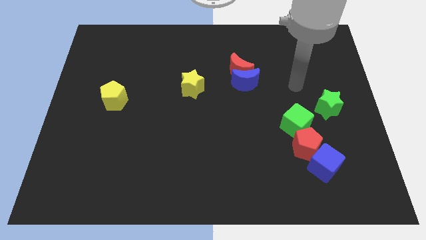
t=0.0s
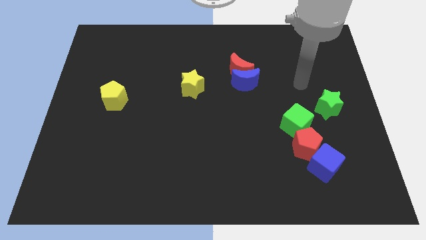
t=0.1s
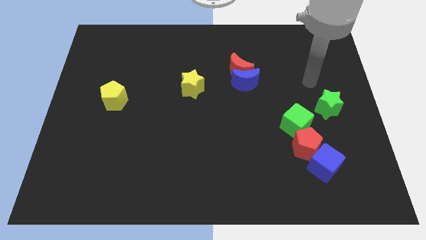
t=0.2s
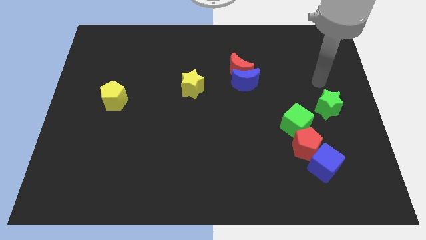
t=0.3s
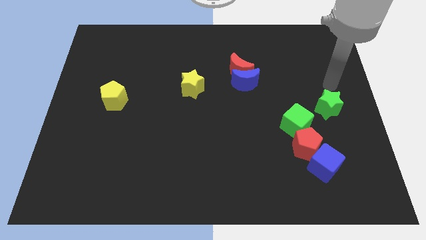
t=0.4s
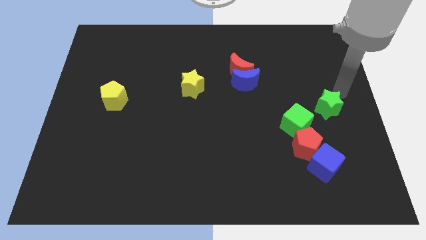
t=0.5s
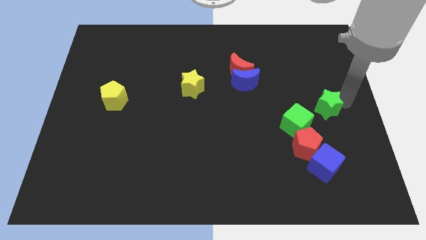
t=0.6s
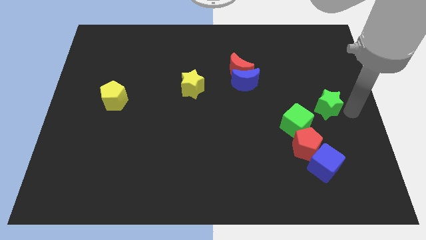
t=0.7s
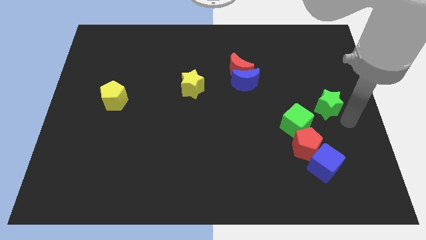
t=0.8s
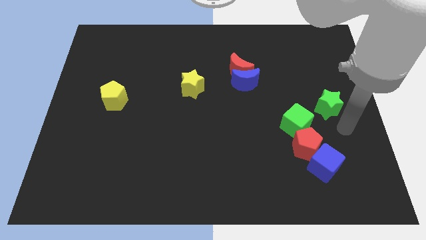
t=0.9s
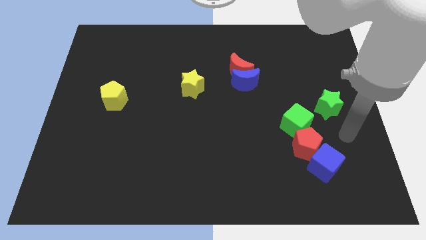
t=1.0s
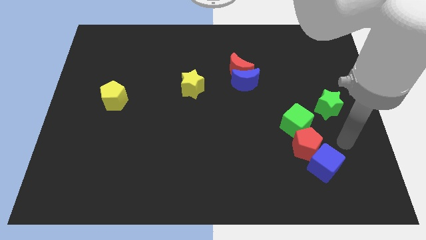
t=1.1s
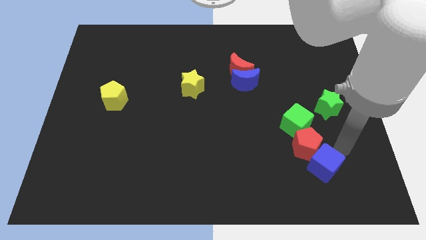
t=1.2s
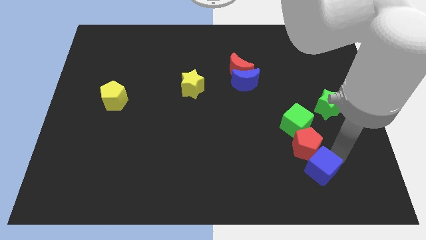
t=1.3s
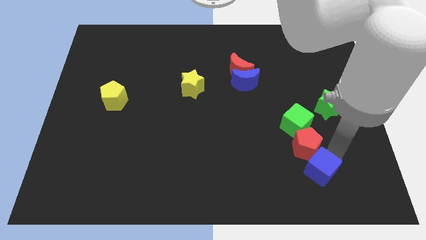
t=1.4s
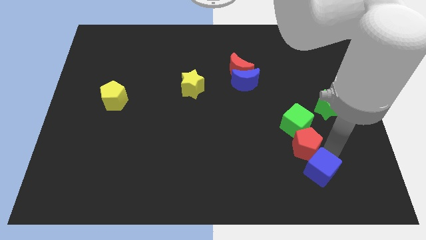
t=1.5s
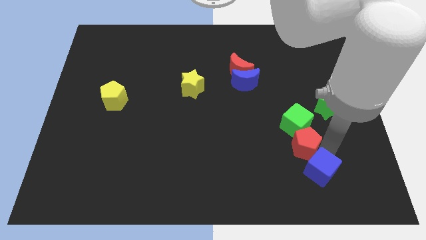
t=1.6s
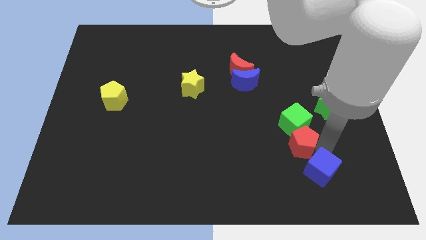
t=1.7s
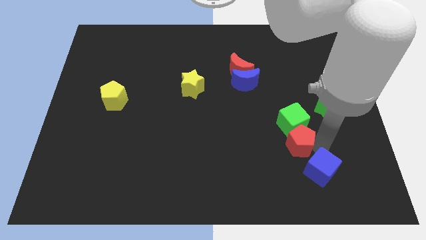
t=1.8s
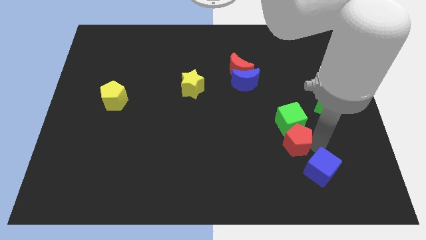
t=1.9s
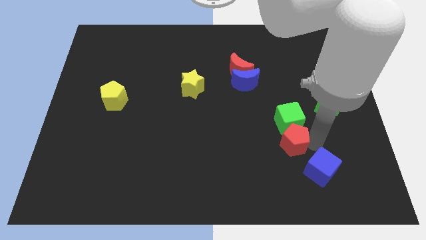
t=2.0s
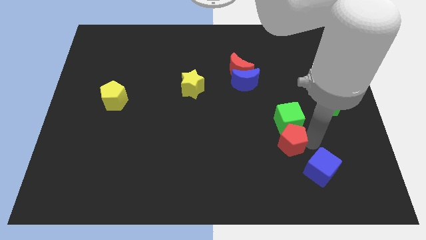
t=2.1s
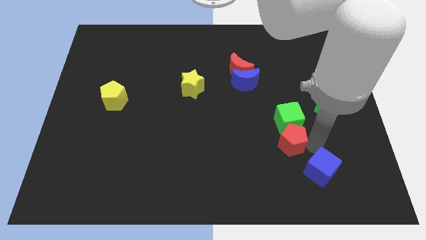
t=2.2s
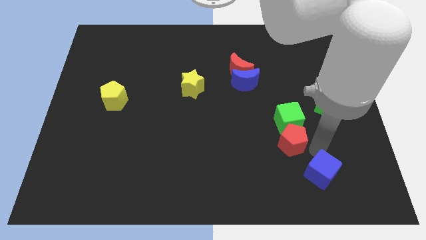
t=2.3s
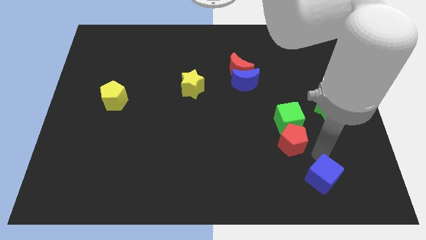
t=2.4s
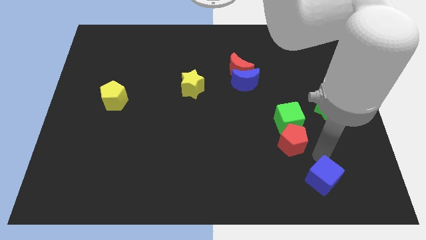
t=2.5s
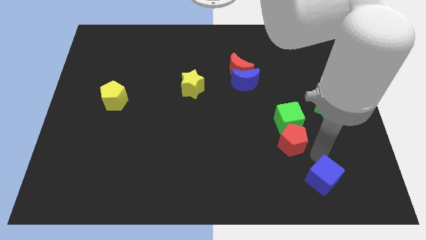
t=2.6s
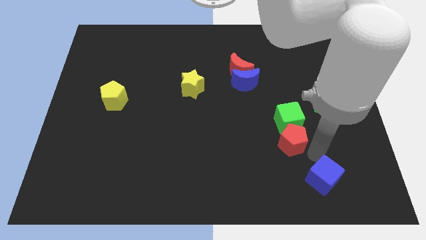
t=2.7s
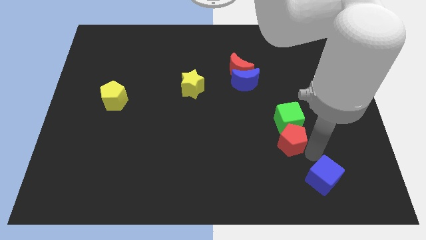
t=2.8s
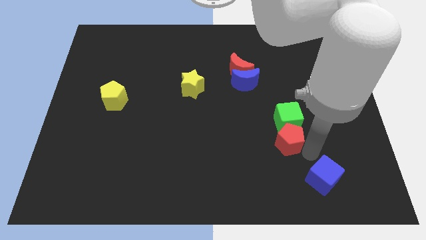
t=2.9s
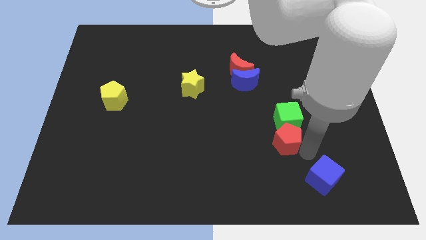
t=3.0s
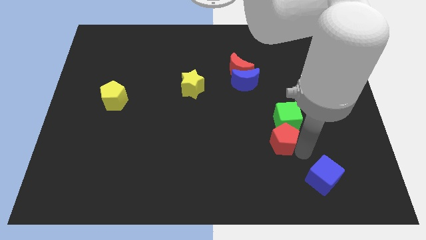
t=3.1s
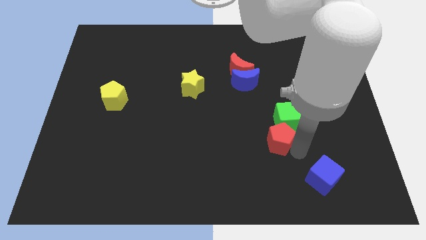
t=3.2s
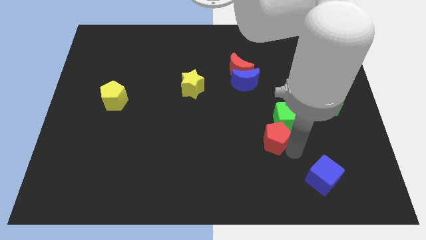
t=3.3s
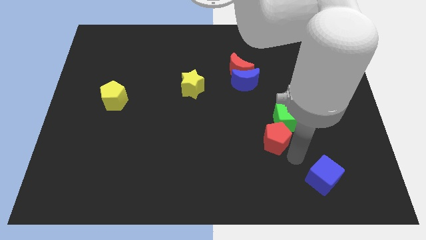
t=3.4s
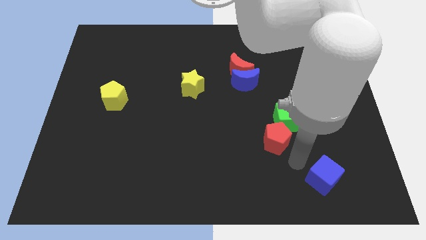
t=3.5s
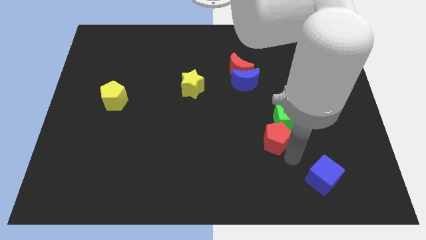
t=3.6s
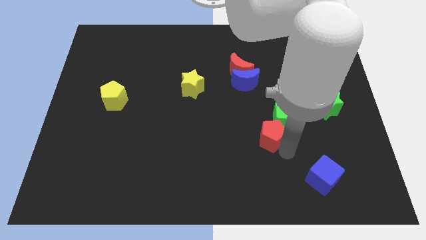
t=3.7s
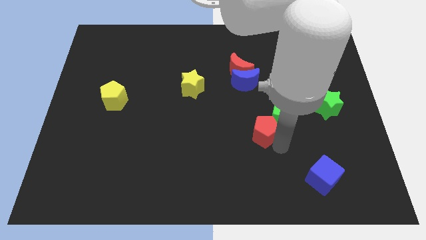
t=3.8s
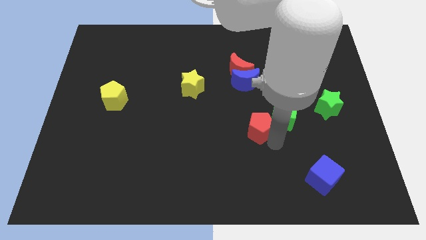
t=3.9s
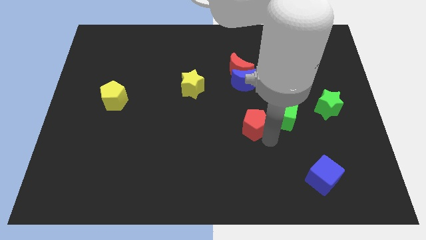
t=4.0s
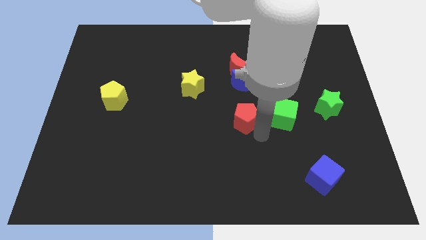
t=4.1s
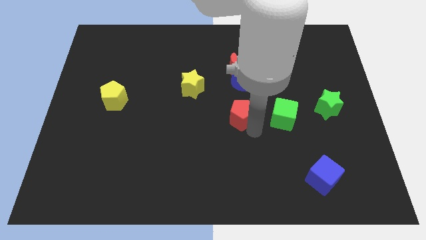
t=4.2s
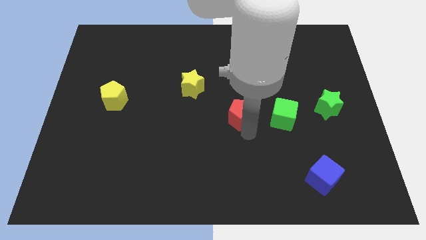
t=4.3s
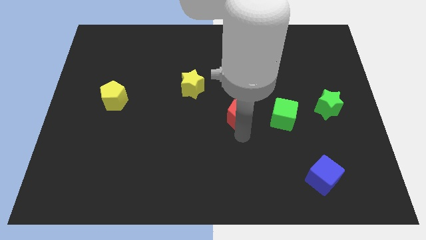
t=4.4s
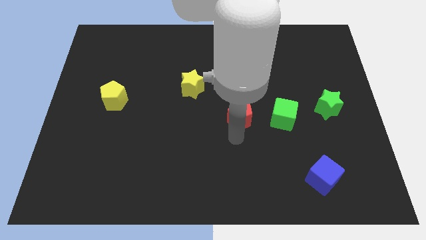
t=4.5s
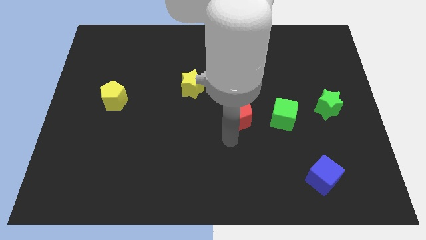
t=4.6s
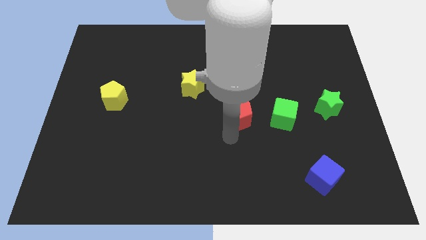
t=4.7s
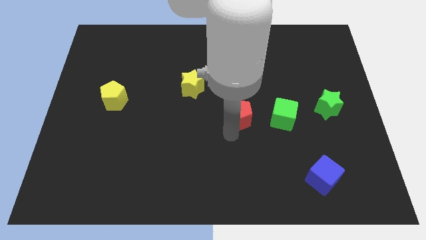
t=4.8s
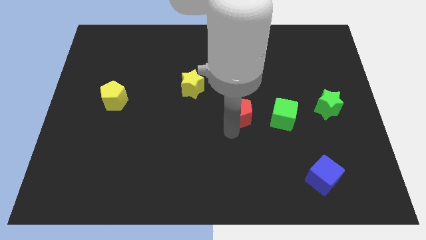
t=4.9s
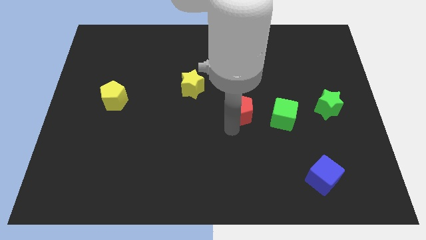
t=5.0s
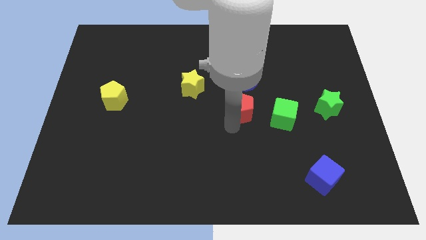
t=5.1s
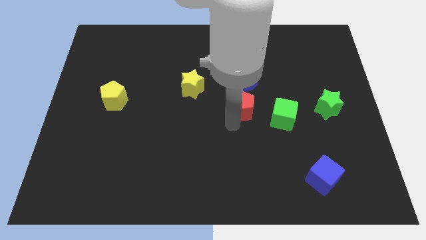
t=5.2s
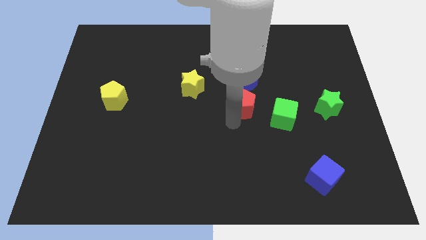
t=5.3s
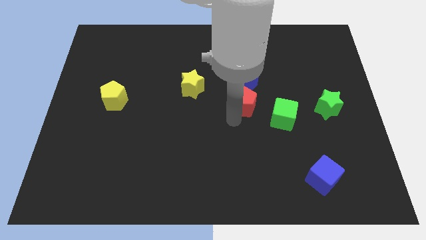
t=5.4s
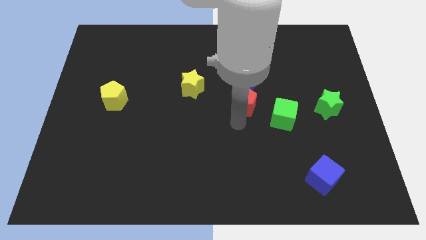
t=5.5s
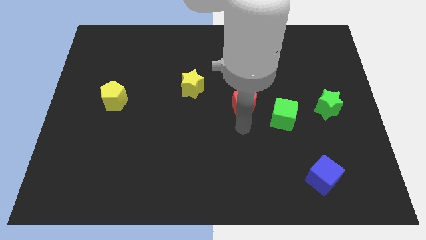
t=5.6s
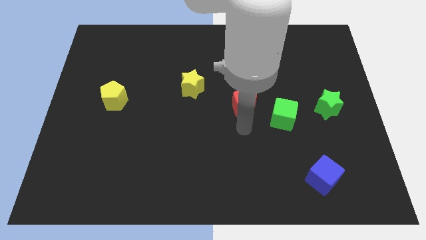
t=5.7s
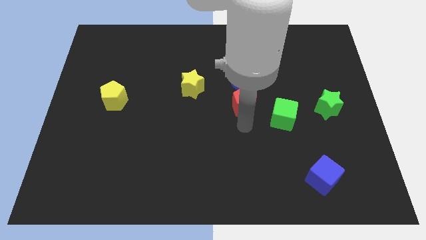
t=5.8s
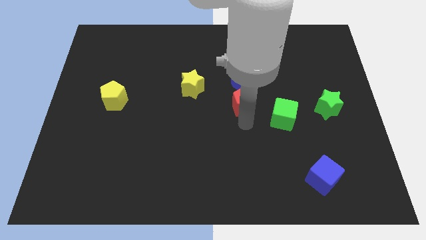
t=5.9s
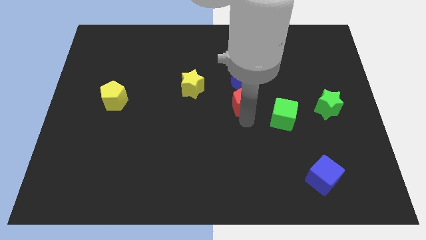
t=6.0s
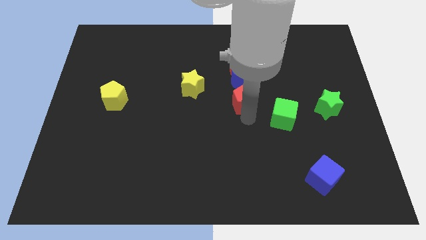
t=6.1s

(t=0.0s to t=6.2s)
move the red pentagon close to the blue moon
